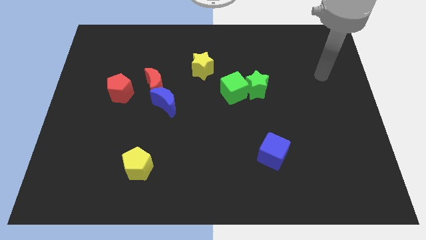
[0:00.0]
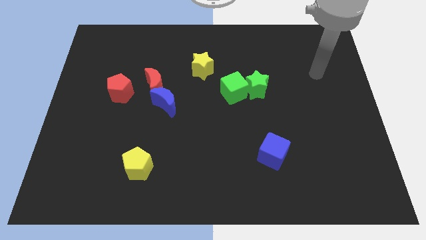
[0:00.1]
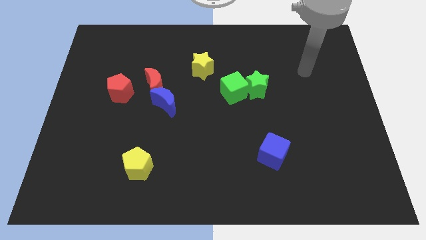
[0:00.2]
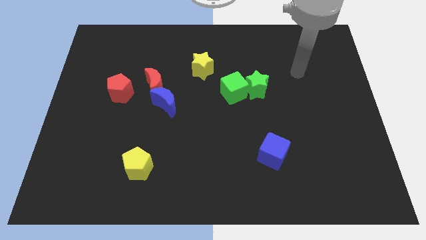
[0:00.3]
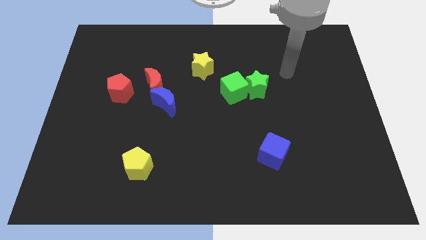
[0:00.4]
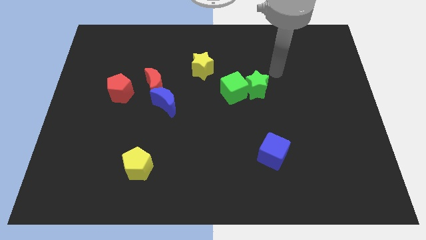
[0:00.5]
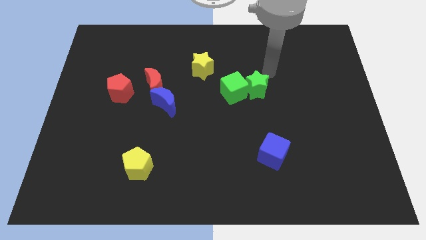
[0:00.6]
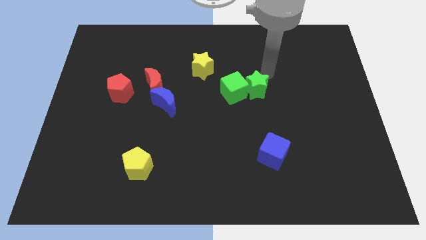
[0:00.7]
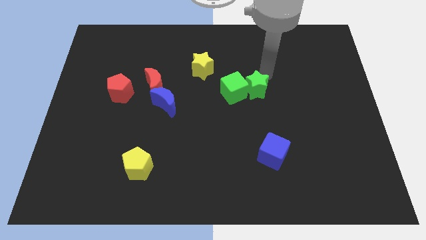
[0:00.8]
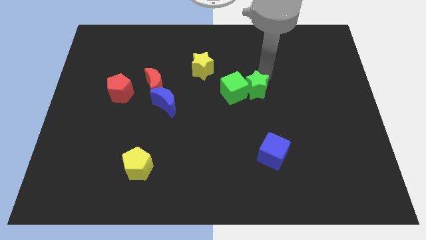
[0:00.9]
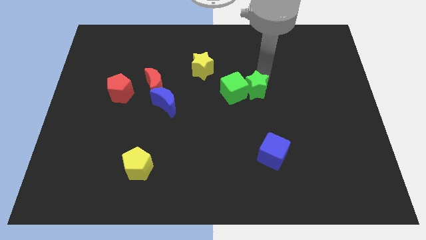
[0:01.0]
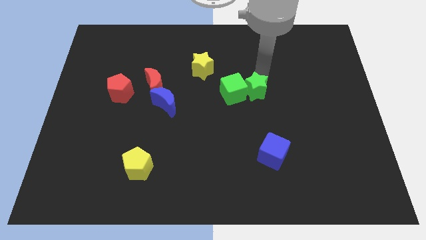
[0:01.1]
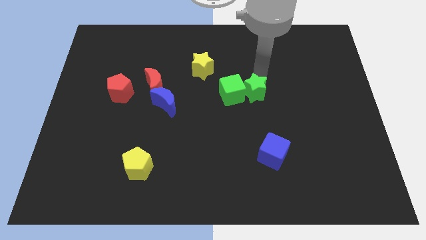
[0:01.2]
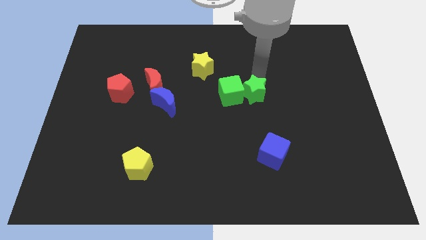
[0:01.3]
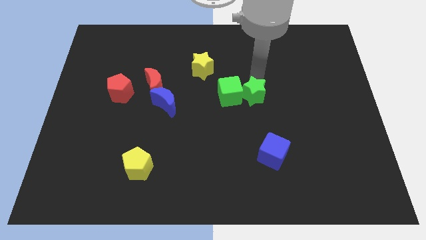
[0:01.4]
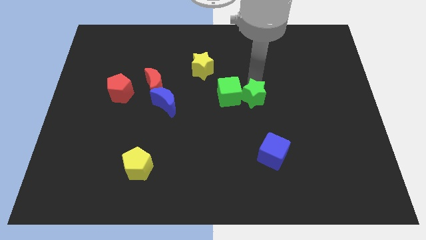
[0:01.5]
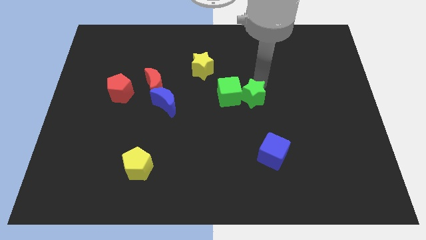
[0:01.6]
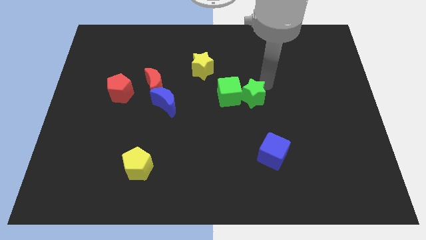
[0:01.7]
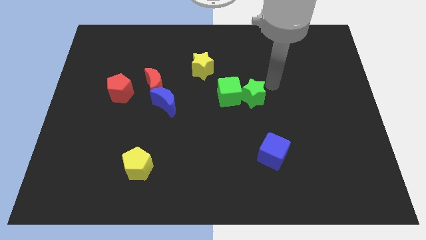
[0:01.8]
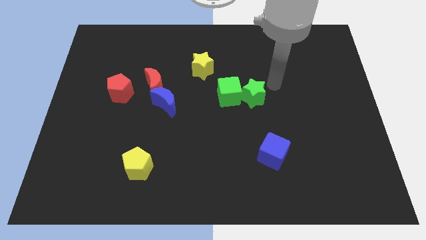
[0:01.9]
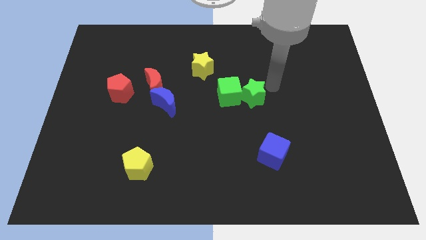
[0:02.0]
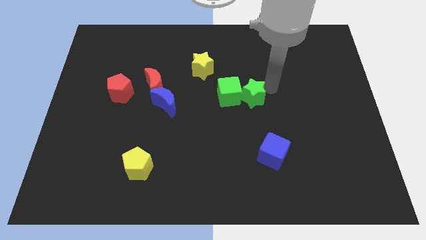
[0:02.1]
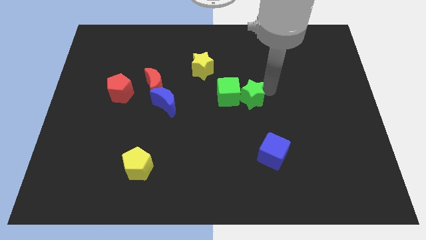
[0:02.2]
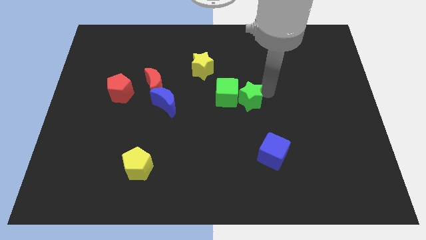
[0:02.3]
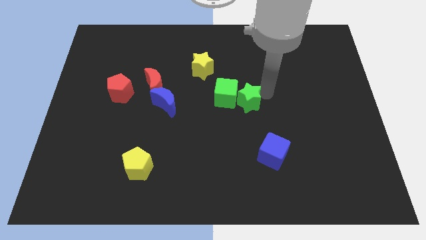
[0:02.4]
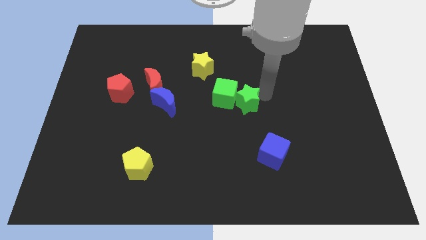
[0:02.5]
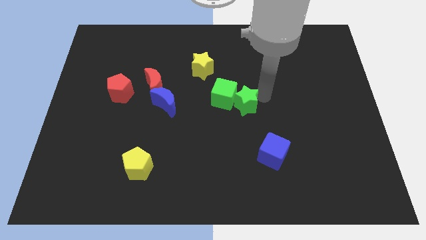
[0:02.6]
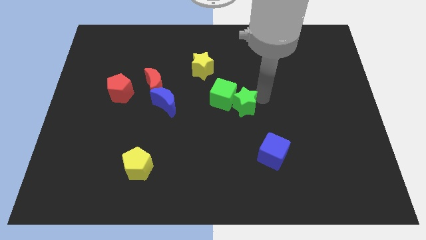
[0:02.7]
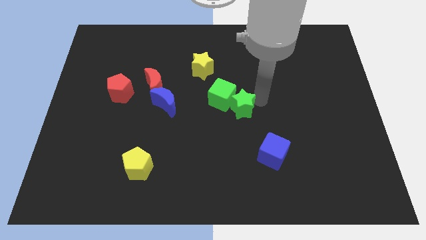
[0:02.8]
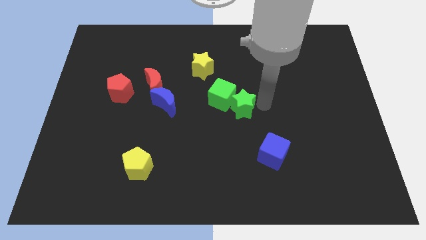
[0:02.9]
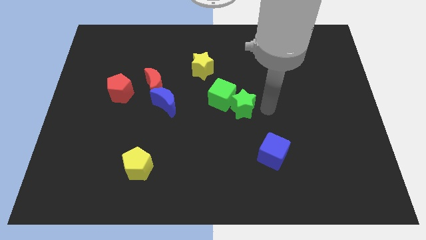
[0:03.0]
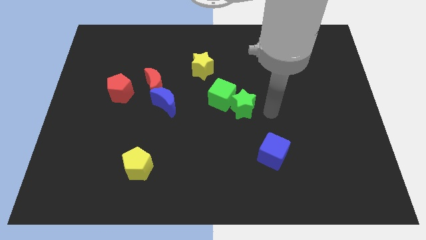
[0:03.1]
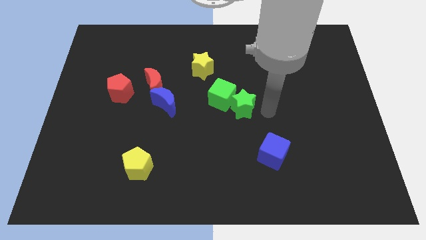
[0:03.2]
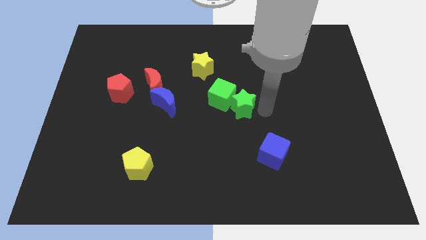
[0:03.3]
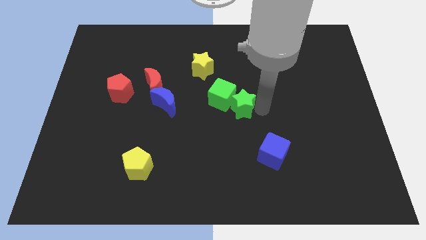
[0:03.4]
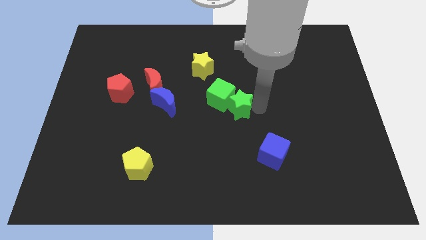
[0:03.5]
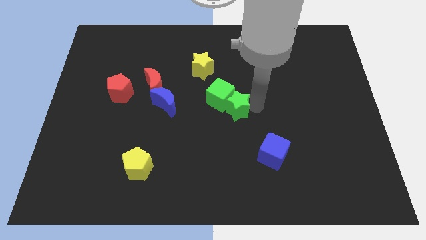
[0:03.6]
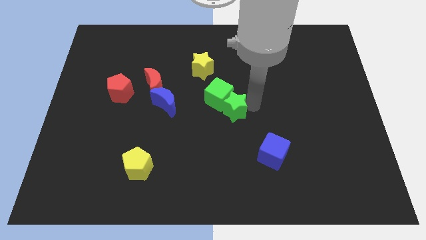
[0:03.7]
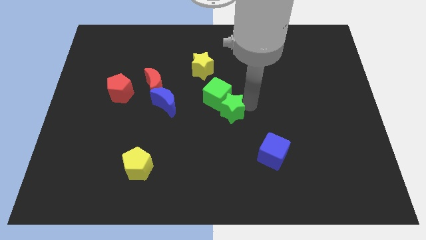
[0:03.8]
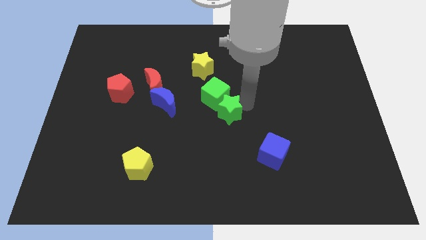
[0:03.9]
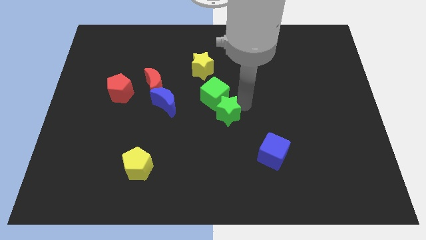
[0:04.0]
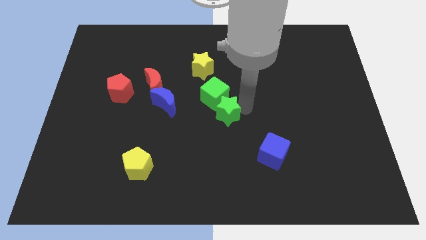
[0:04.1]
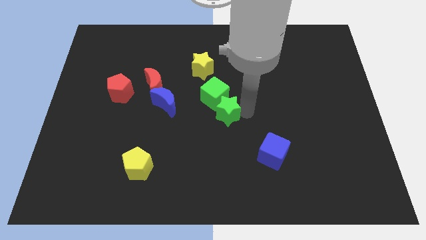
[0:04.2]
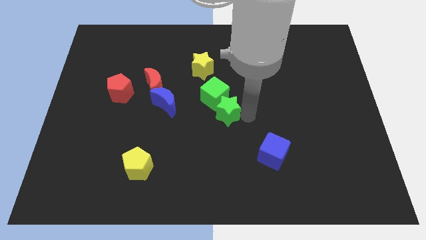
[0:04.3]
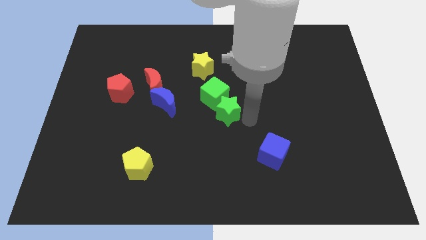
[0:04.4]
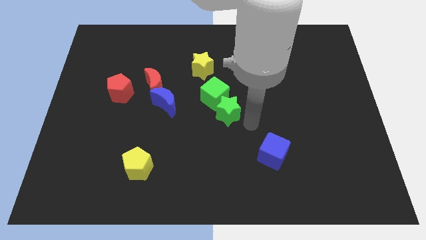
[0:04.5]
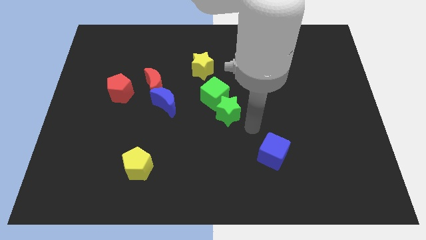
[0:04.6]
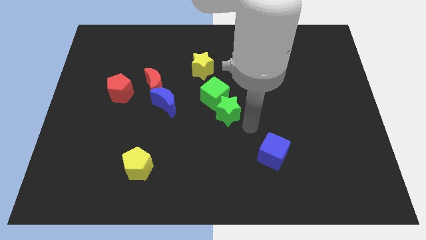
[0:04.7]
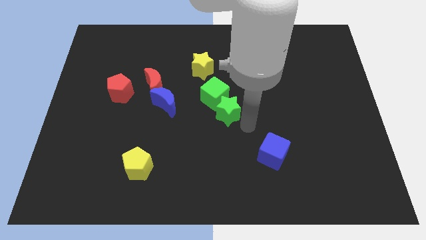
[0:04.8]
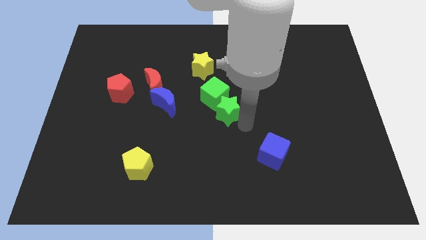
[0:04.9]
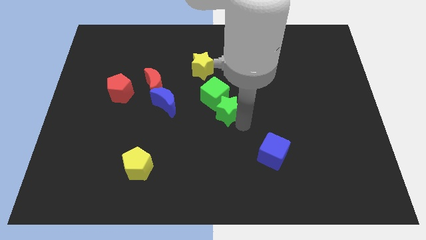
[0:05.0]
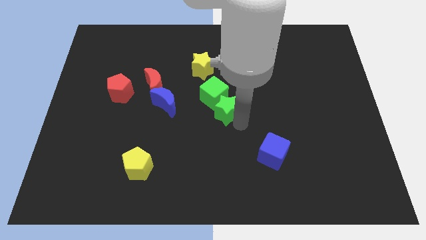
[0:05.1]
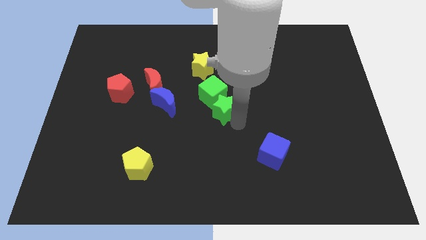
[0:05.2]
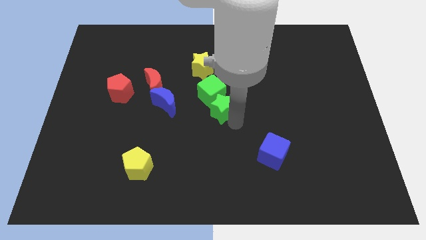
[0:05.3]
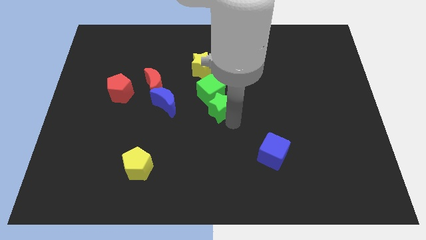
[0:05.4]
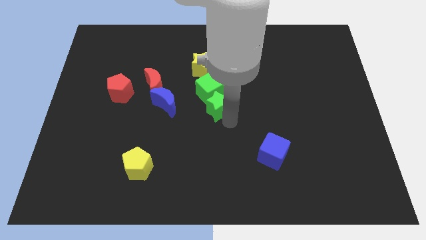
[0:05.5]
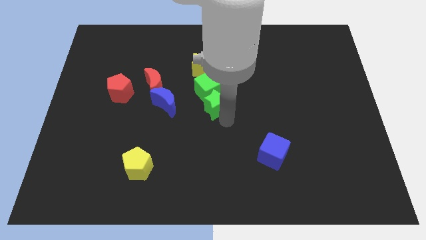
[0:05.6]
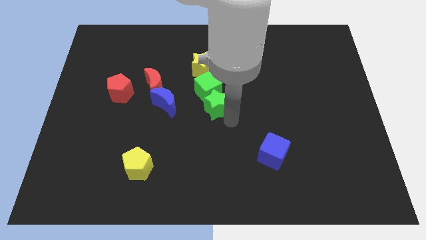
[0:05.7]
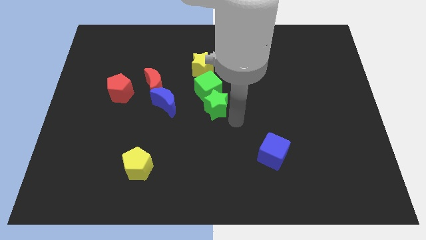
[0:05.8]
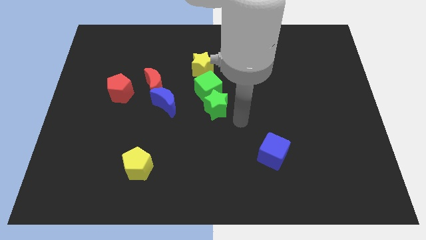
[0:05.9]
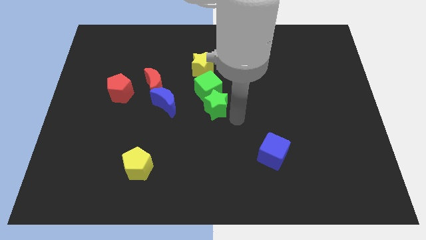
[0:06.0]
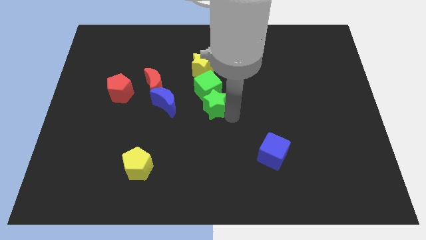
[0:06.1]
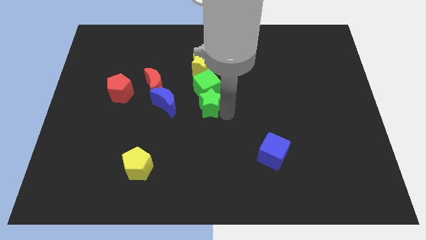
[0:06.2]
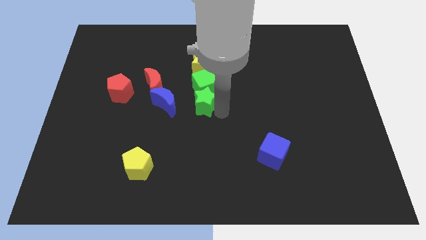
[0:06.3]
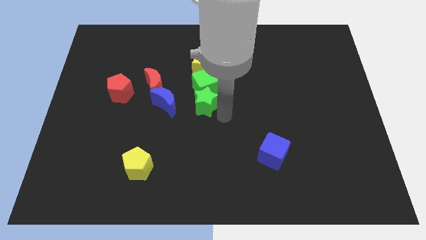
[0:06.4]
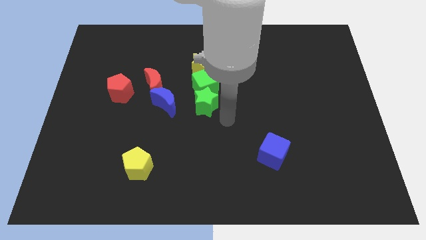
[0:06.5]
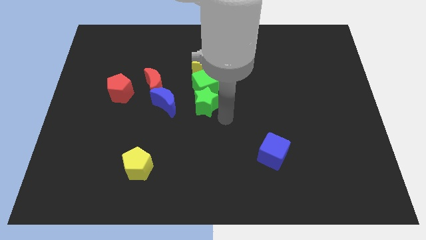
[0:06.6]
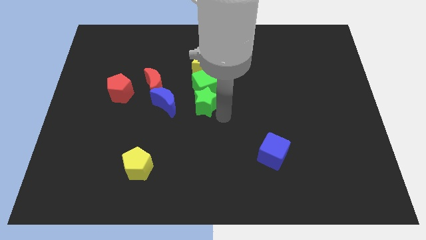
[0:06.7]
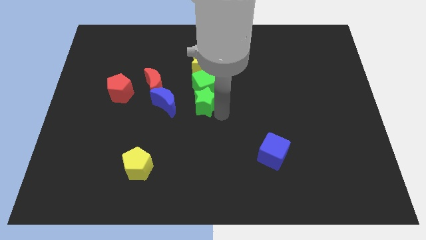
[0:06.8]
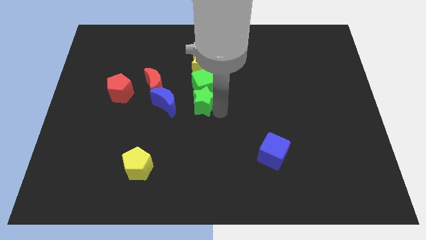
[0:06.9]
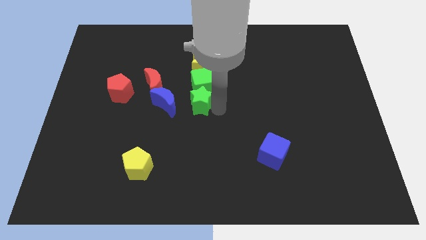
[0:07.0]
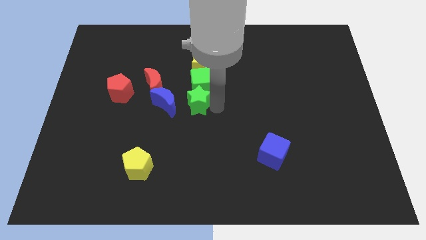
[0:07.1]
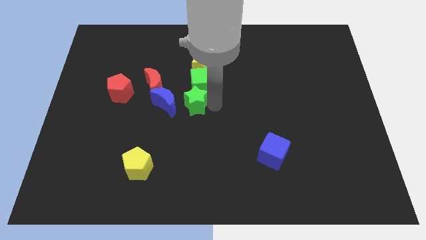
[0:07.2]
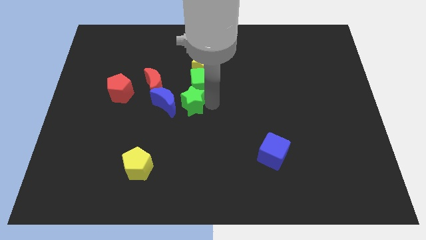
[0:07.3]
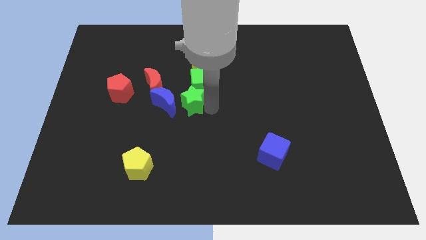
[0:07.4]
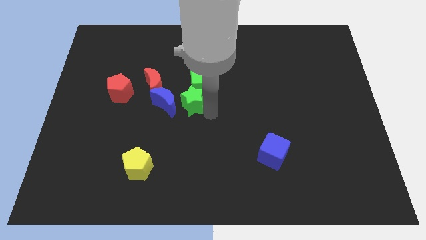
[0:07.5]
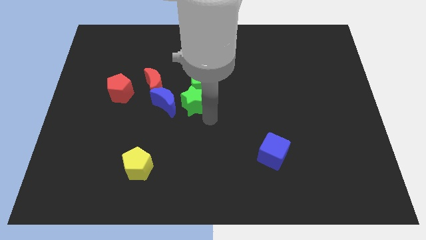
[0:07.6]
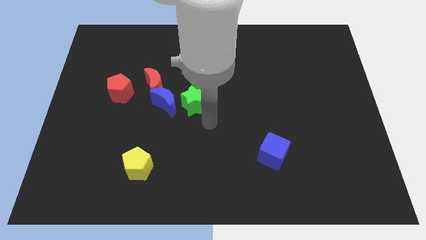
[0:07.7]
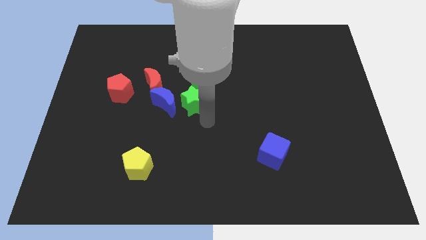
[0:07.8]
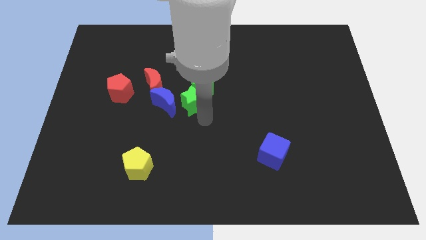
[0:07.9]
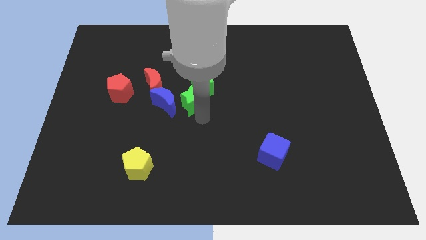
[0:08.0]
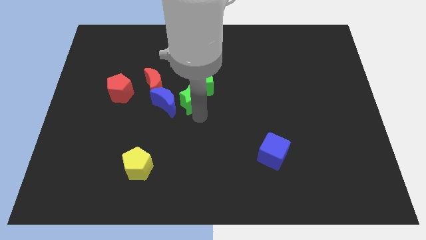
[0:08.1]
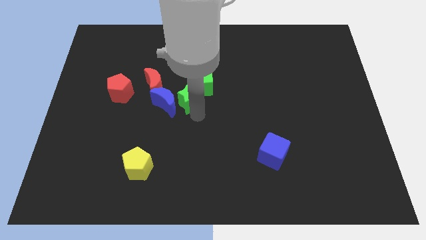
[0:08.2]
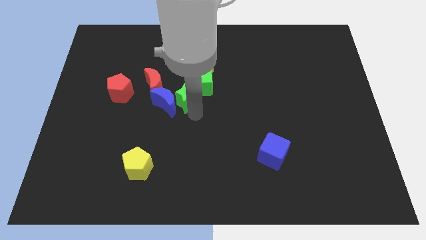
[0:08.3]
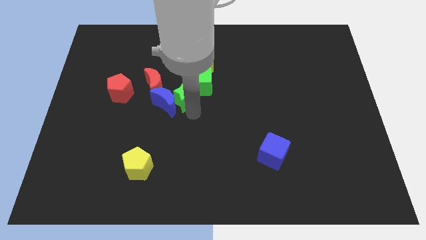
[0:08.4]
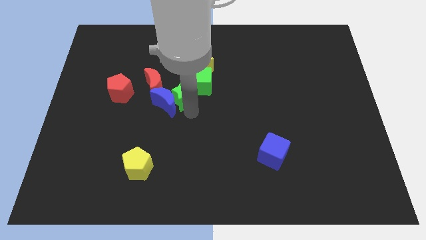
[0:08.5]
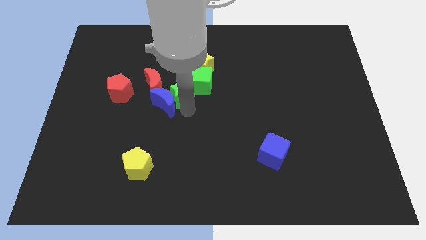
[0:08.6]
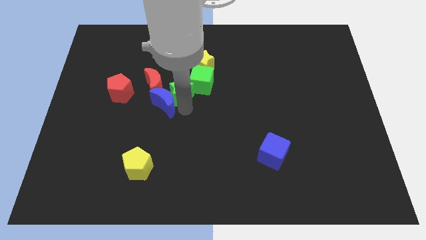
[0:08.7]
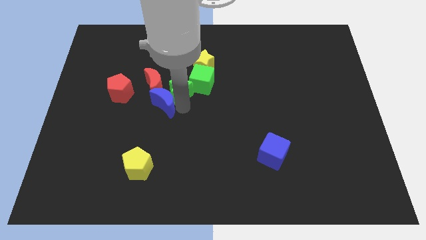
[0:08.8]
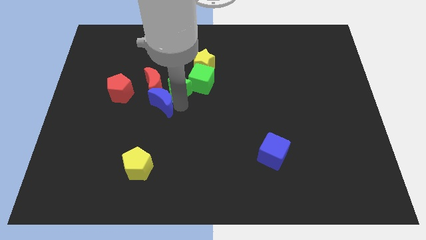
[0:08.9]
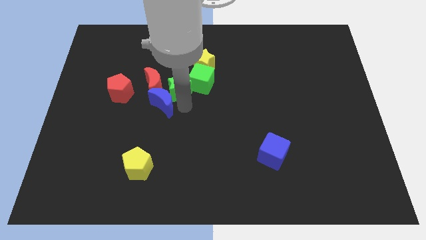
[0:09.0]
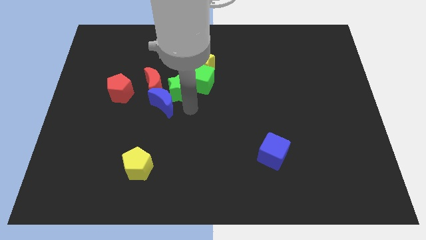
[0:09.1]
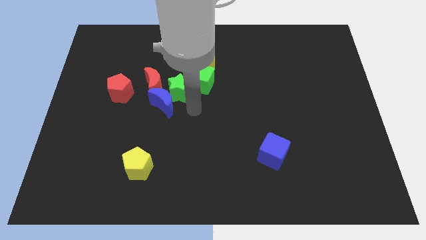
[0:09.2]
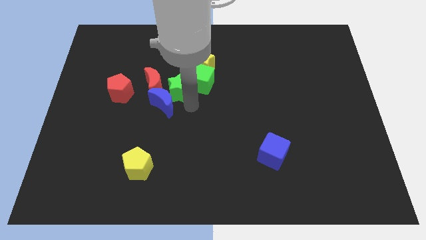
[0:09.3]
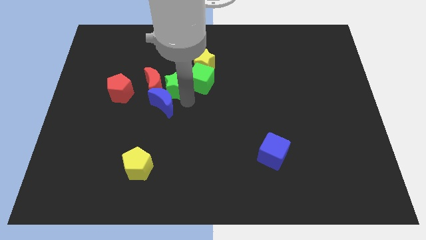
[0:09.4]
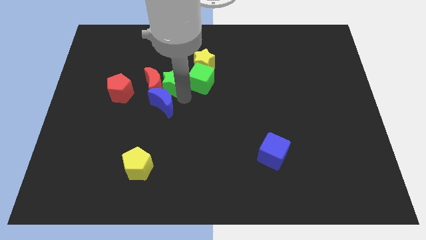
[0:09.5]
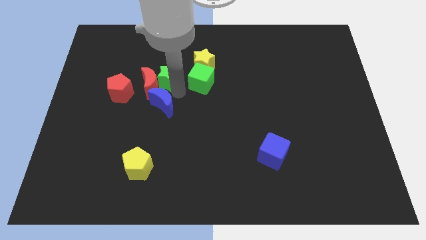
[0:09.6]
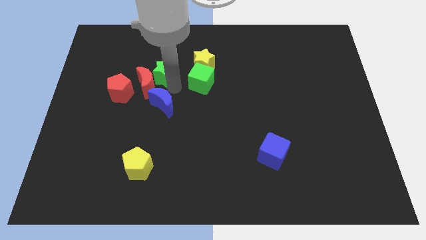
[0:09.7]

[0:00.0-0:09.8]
put the green star just left of the yellow star
